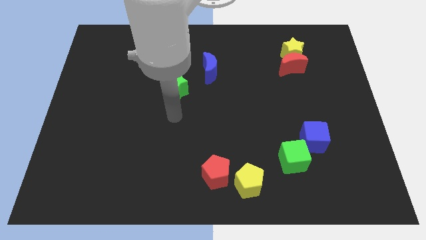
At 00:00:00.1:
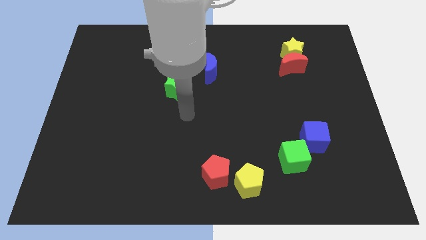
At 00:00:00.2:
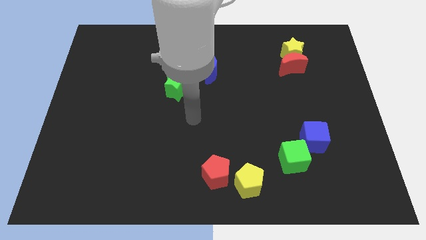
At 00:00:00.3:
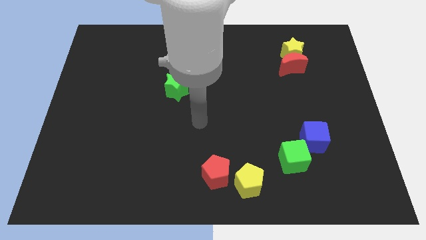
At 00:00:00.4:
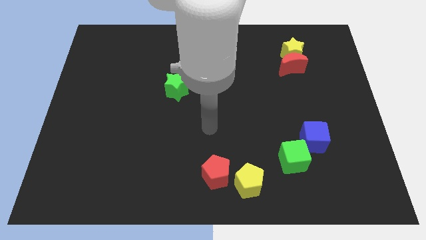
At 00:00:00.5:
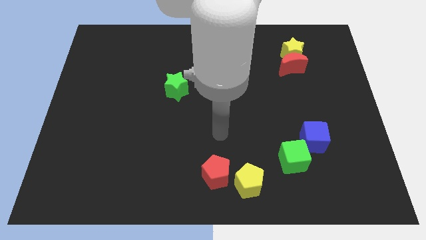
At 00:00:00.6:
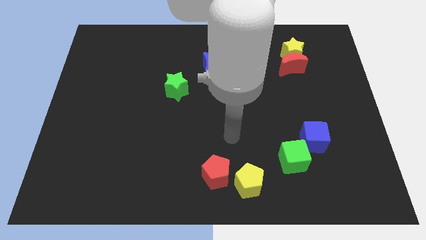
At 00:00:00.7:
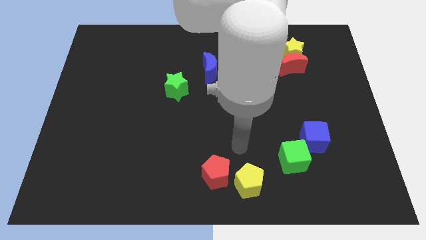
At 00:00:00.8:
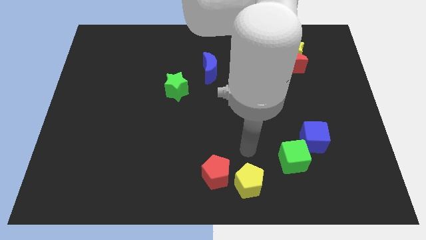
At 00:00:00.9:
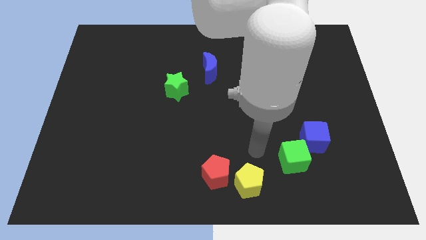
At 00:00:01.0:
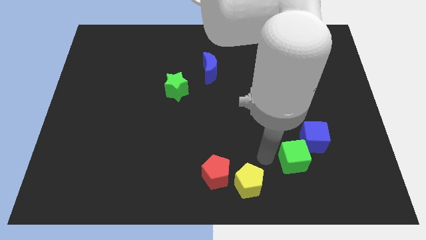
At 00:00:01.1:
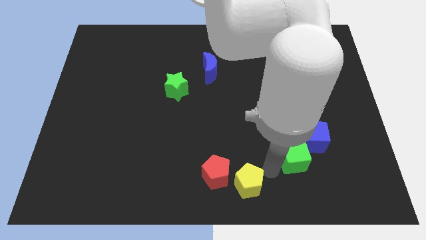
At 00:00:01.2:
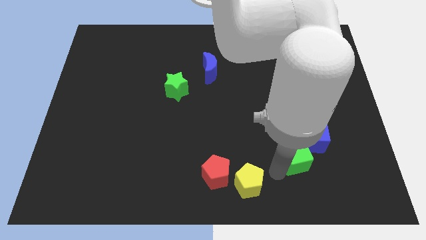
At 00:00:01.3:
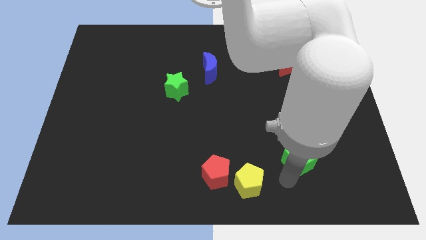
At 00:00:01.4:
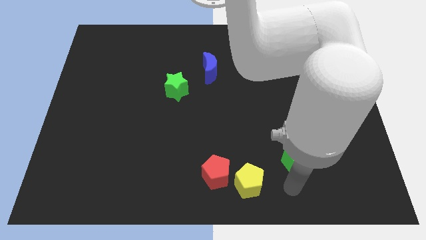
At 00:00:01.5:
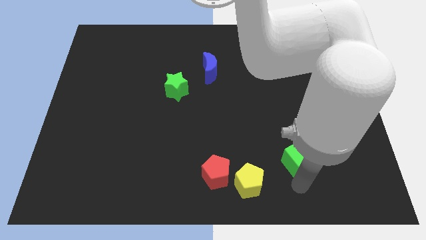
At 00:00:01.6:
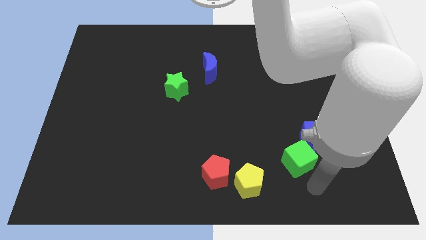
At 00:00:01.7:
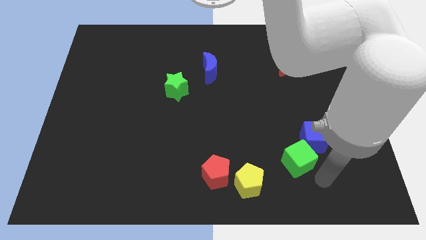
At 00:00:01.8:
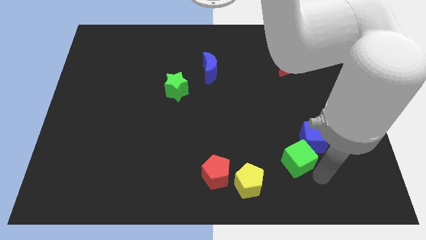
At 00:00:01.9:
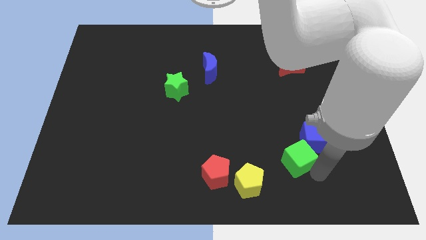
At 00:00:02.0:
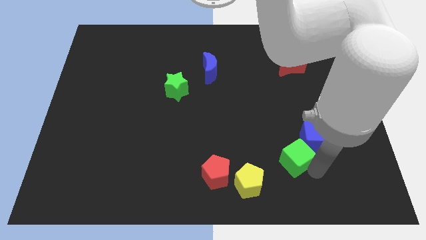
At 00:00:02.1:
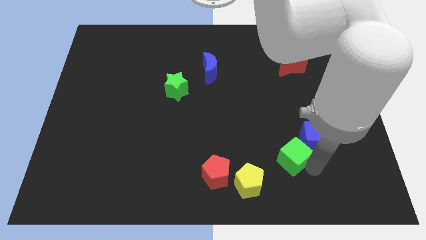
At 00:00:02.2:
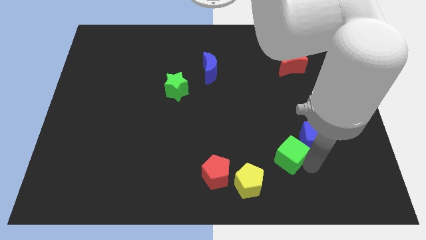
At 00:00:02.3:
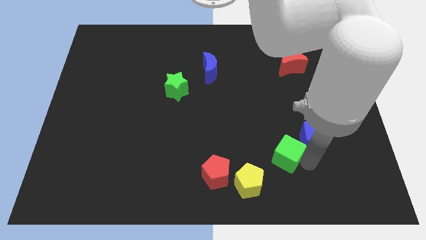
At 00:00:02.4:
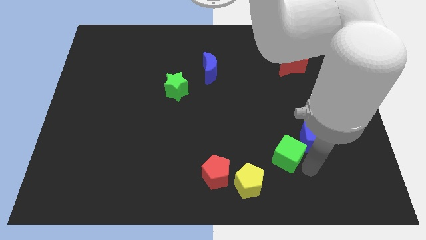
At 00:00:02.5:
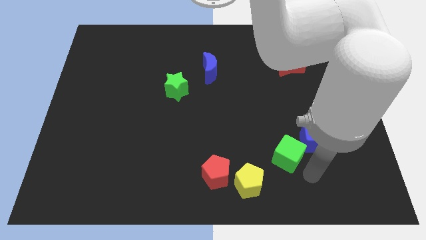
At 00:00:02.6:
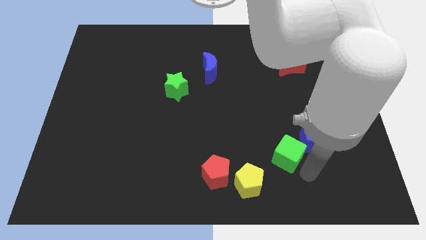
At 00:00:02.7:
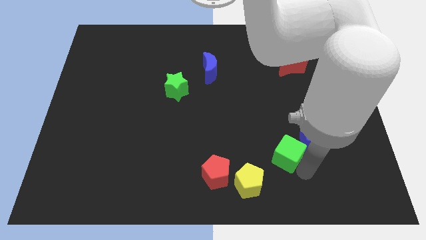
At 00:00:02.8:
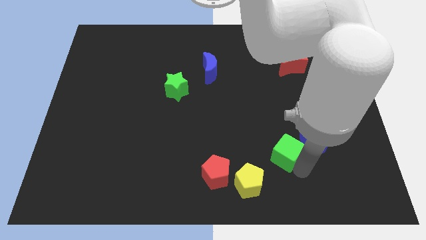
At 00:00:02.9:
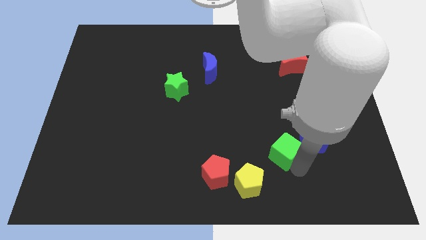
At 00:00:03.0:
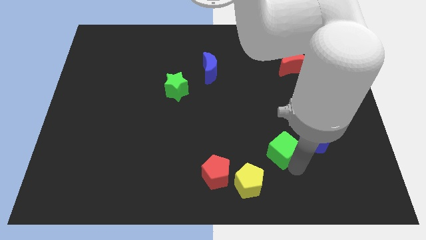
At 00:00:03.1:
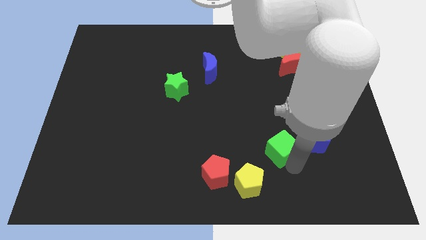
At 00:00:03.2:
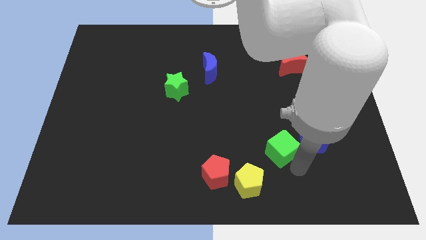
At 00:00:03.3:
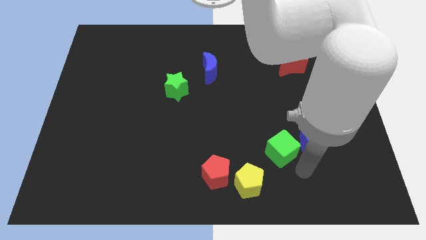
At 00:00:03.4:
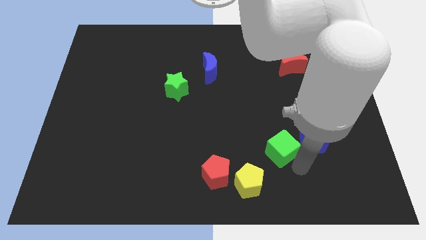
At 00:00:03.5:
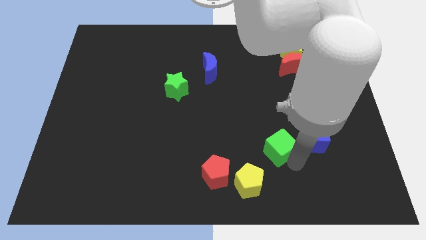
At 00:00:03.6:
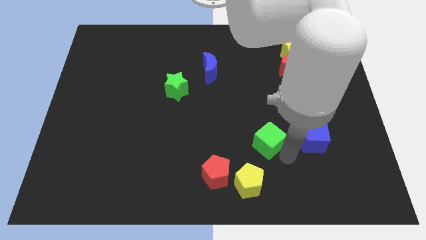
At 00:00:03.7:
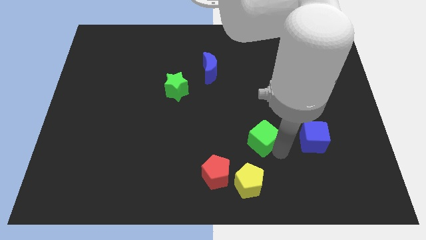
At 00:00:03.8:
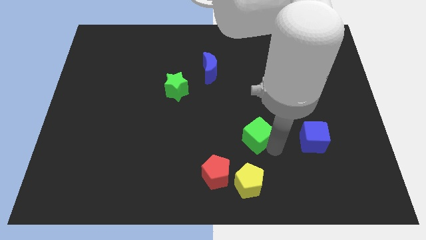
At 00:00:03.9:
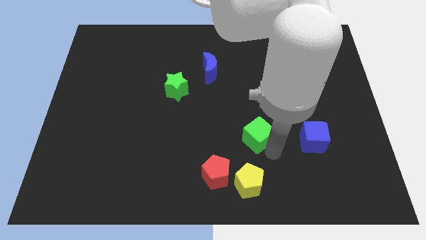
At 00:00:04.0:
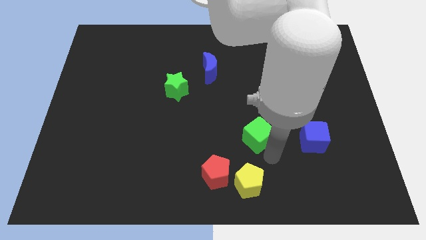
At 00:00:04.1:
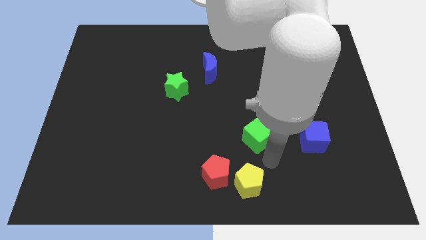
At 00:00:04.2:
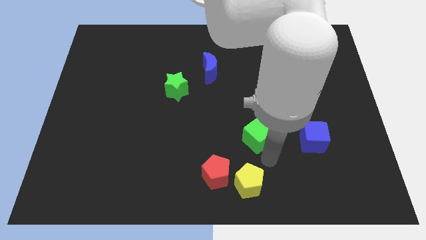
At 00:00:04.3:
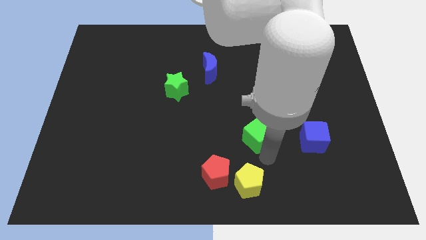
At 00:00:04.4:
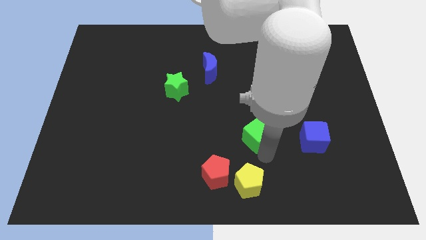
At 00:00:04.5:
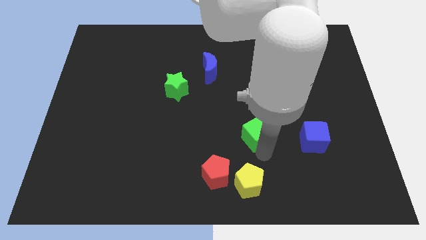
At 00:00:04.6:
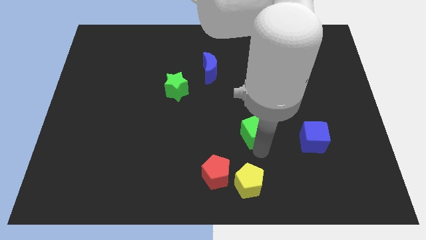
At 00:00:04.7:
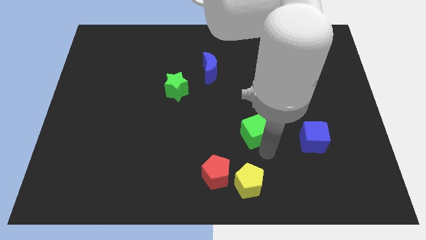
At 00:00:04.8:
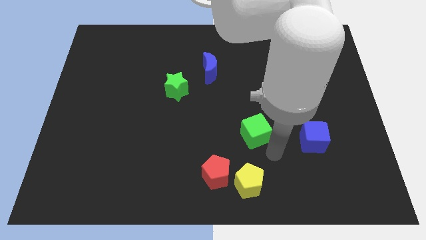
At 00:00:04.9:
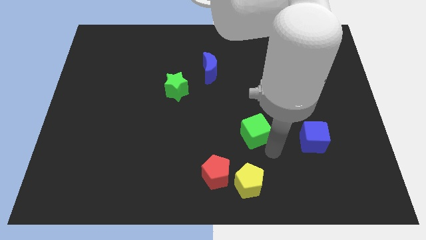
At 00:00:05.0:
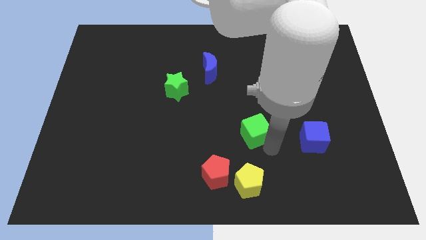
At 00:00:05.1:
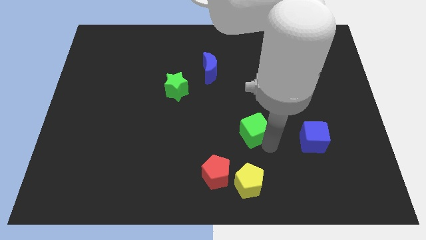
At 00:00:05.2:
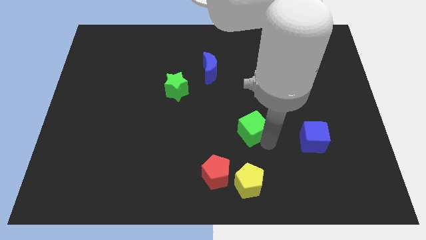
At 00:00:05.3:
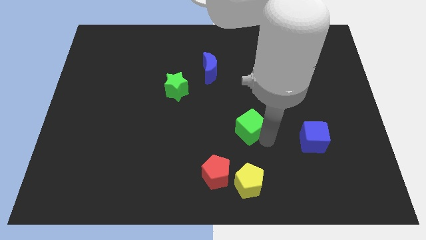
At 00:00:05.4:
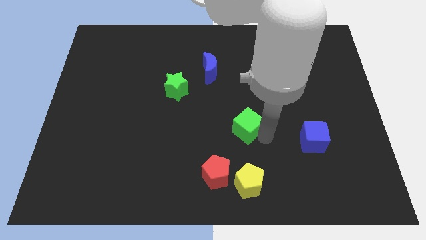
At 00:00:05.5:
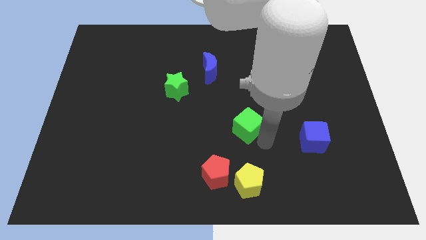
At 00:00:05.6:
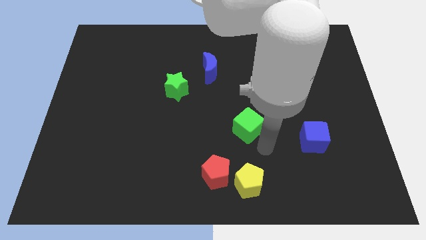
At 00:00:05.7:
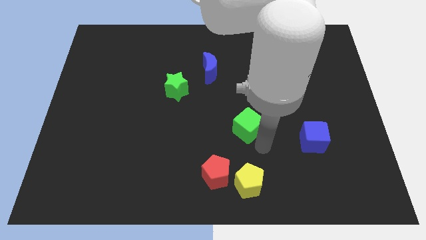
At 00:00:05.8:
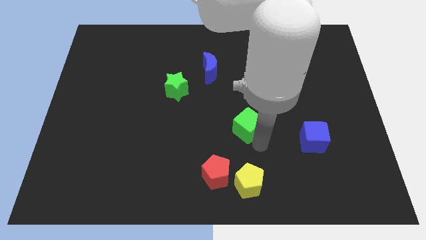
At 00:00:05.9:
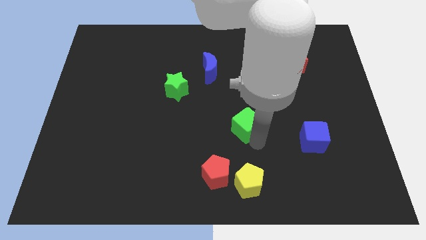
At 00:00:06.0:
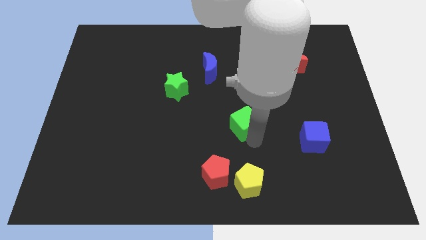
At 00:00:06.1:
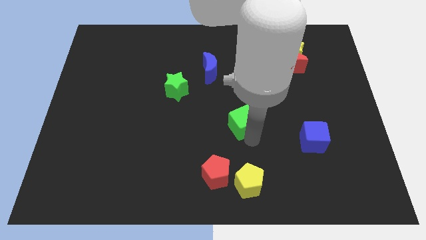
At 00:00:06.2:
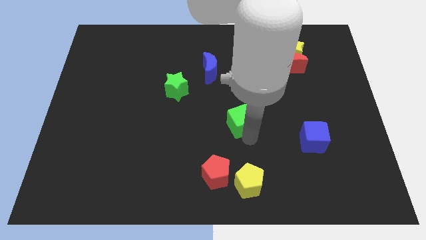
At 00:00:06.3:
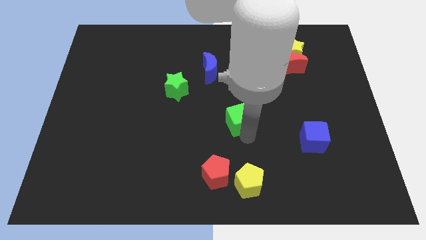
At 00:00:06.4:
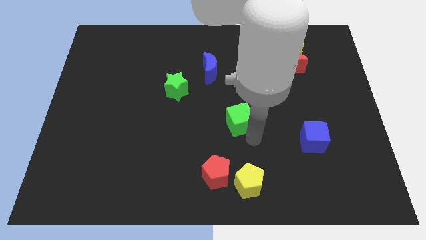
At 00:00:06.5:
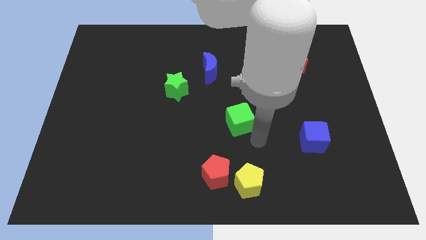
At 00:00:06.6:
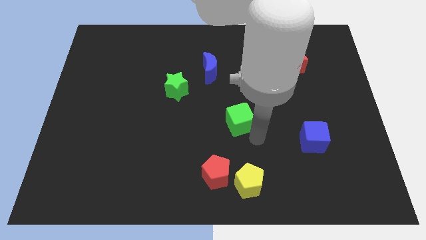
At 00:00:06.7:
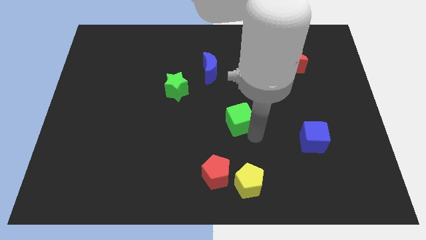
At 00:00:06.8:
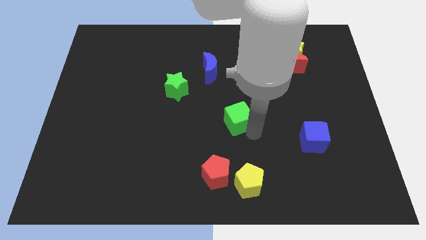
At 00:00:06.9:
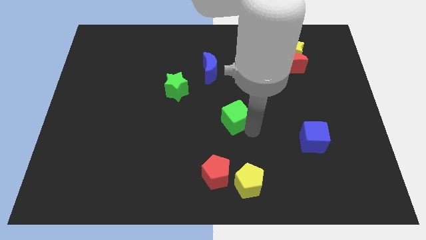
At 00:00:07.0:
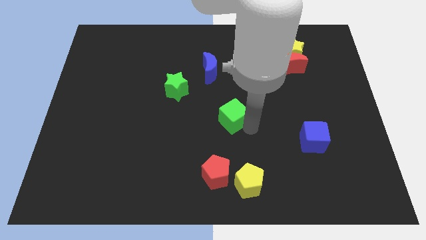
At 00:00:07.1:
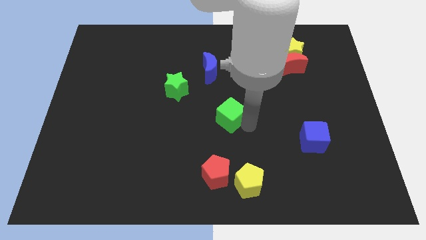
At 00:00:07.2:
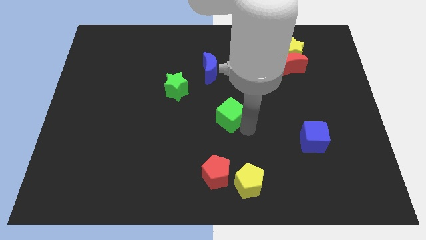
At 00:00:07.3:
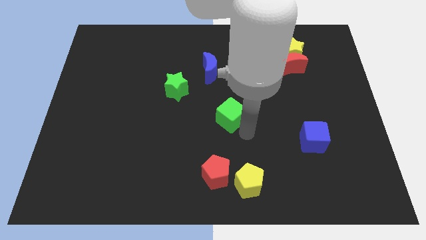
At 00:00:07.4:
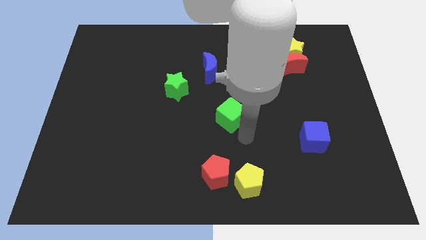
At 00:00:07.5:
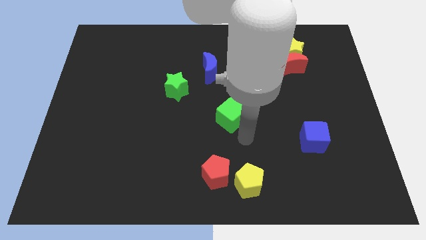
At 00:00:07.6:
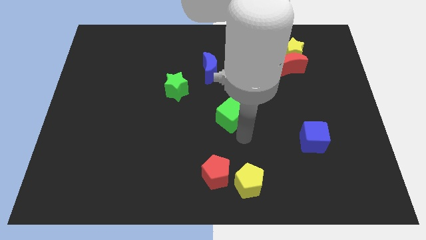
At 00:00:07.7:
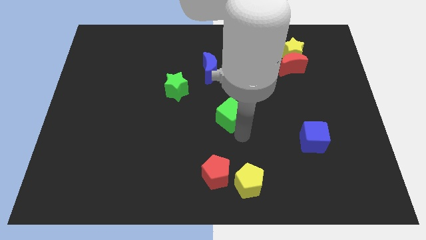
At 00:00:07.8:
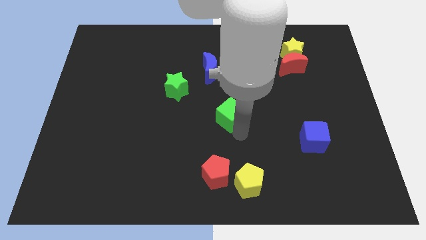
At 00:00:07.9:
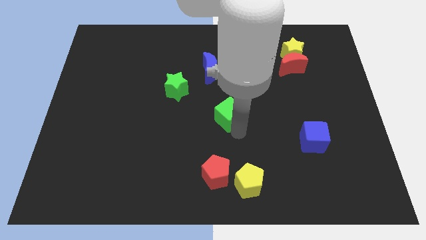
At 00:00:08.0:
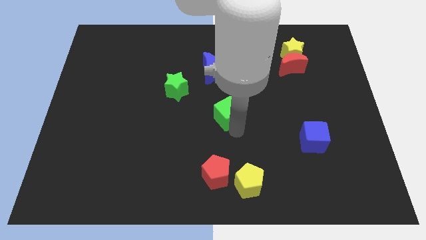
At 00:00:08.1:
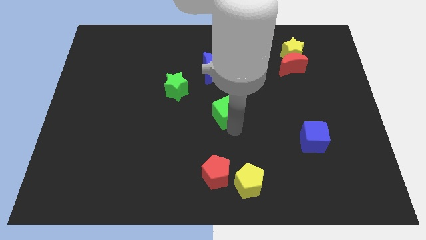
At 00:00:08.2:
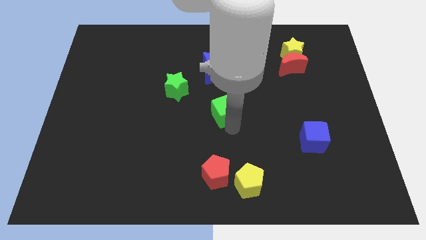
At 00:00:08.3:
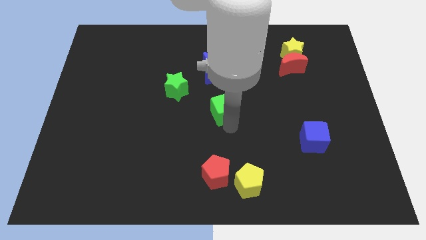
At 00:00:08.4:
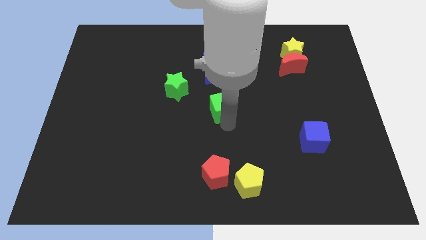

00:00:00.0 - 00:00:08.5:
push the green cube diagonally up and to the left
